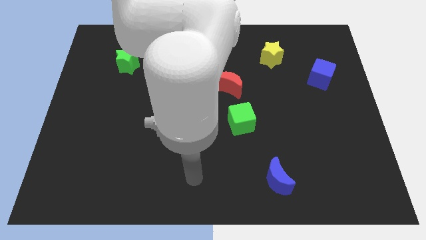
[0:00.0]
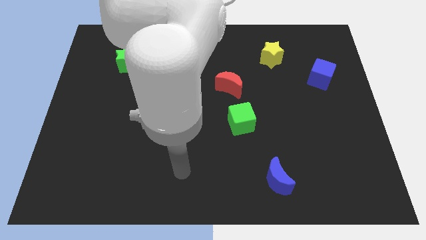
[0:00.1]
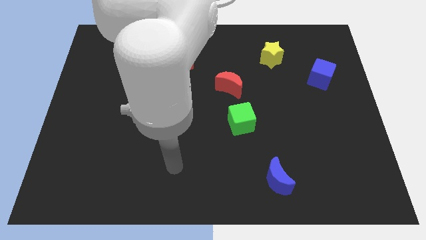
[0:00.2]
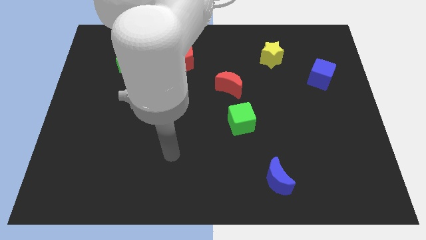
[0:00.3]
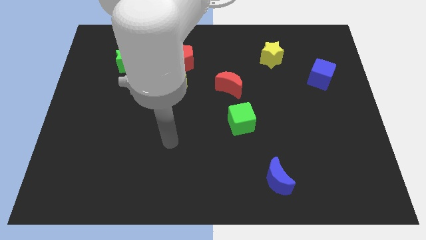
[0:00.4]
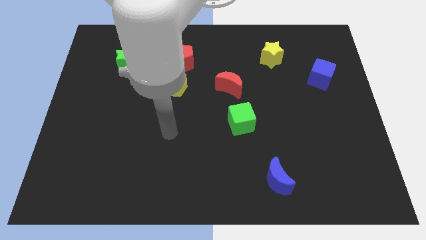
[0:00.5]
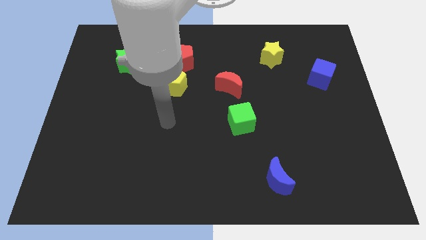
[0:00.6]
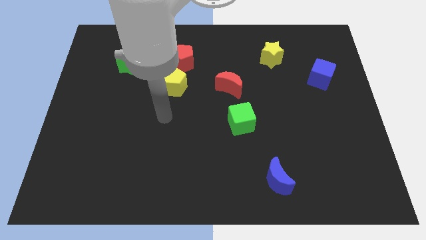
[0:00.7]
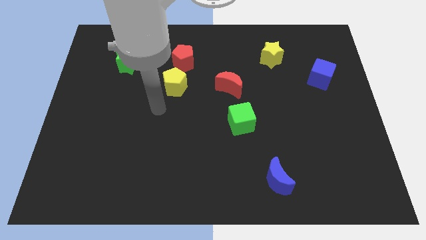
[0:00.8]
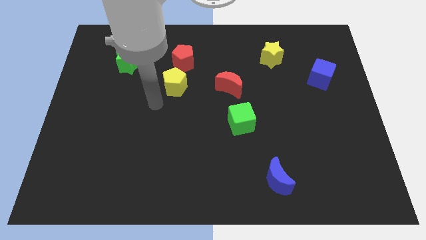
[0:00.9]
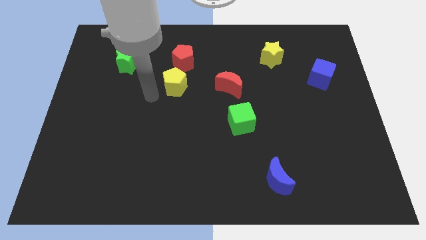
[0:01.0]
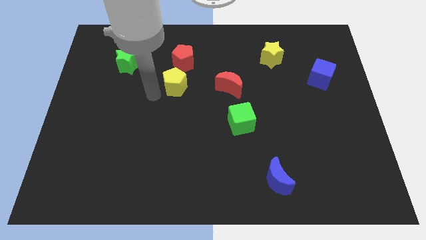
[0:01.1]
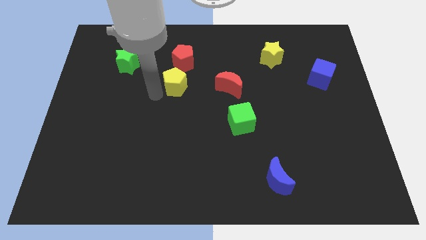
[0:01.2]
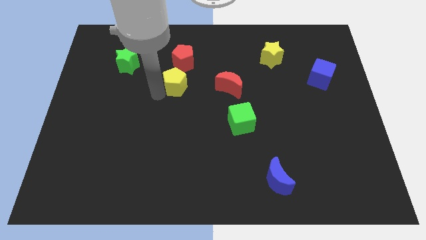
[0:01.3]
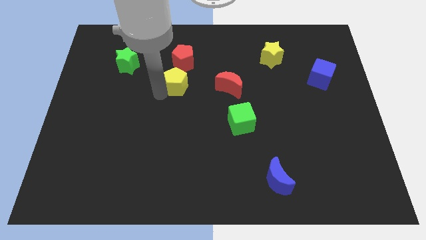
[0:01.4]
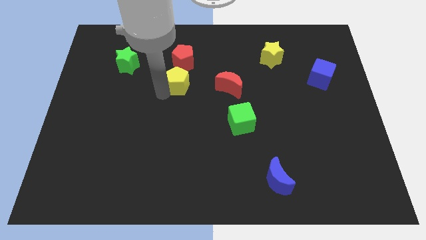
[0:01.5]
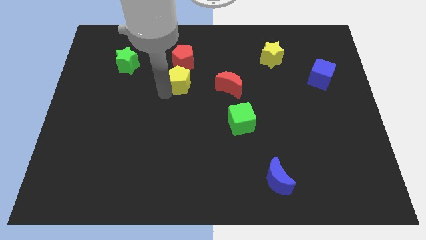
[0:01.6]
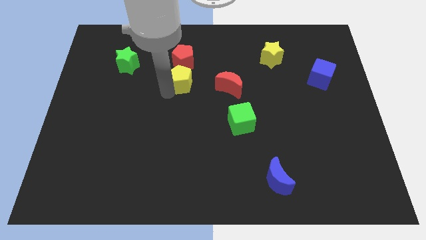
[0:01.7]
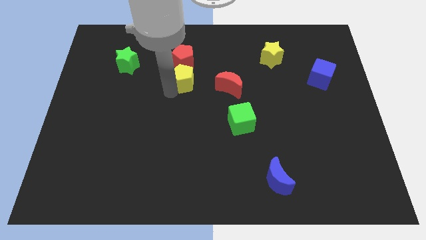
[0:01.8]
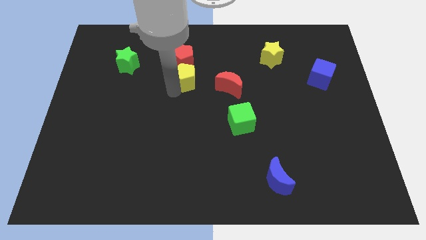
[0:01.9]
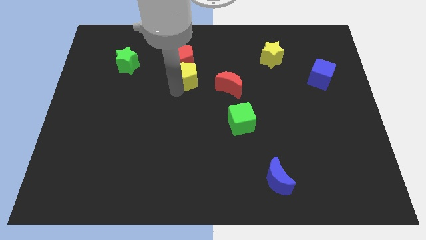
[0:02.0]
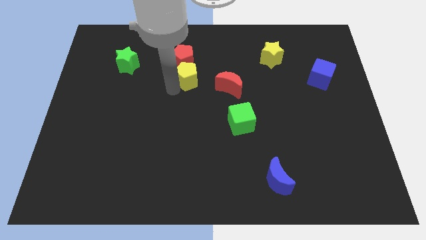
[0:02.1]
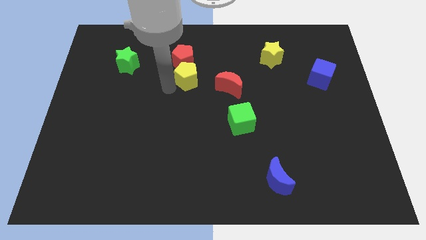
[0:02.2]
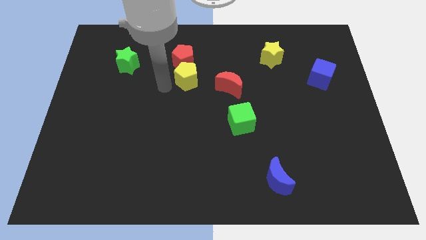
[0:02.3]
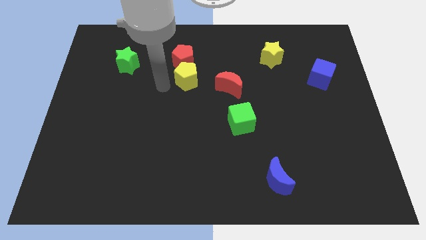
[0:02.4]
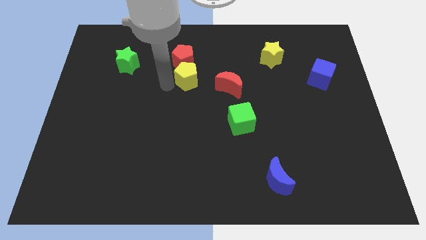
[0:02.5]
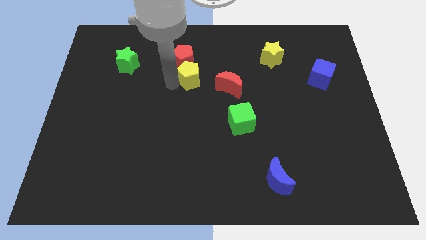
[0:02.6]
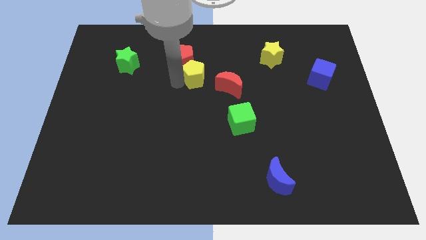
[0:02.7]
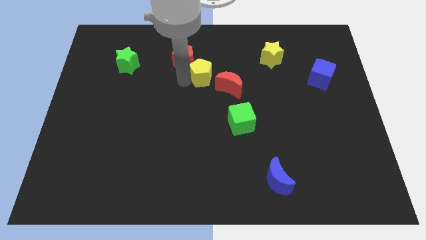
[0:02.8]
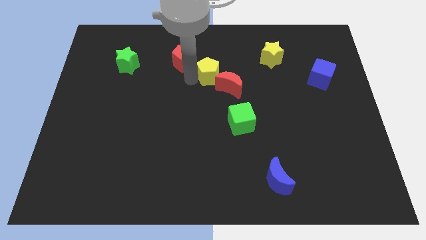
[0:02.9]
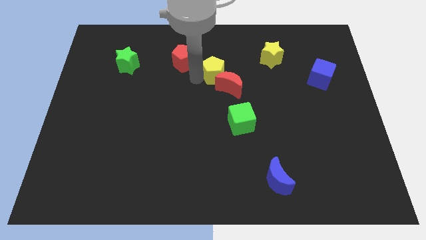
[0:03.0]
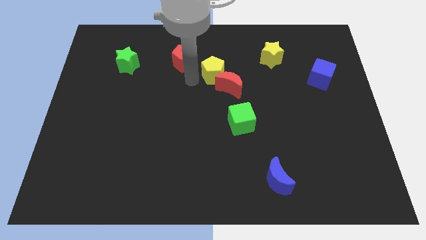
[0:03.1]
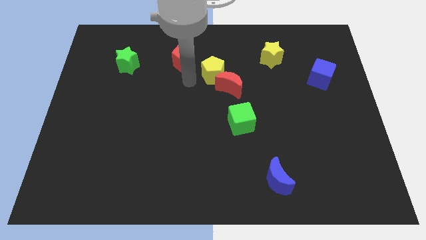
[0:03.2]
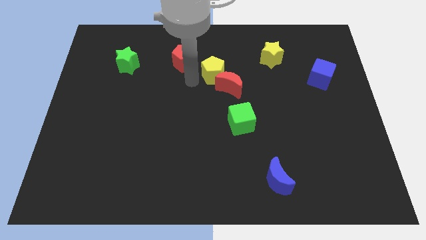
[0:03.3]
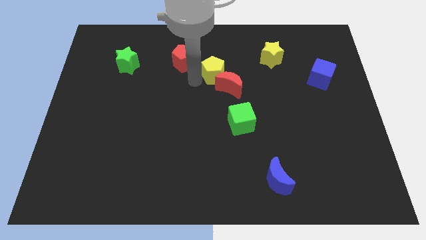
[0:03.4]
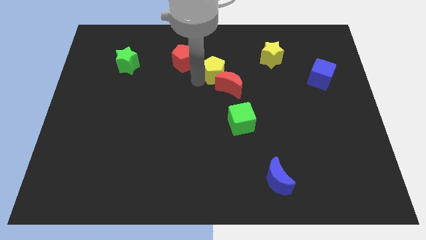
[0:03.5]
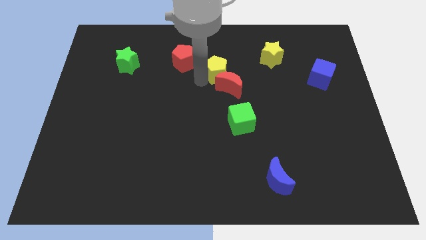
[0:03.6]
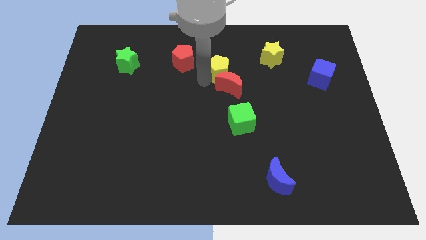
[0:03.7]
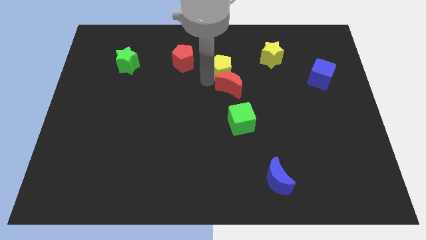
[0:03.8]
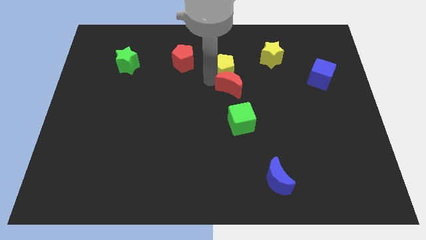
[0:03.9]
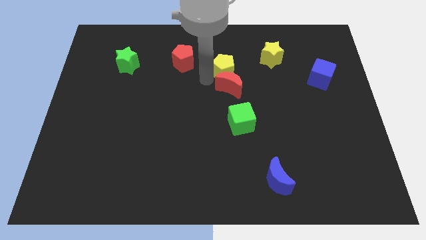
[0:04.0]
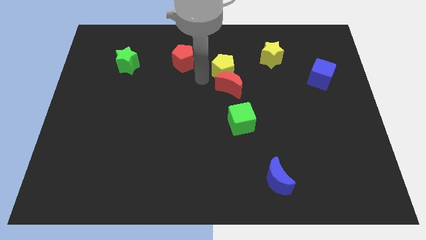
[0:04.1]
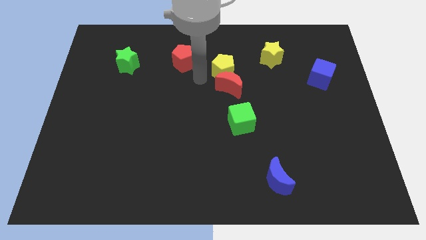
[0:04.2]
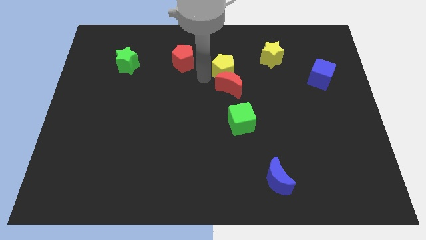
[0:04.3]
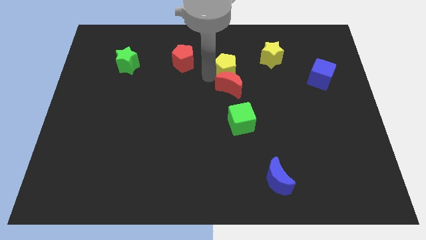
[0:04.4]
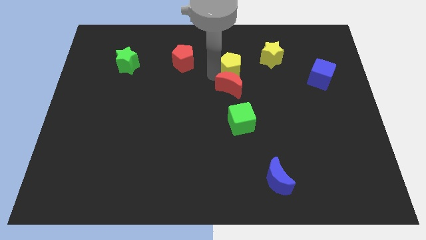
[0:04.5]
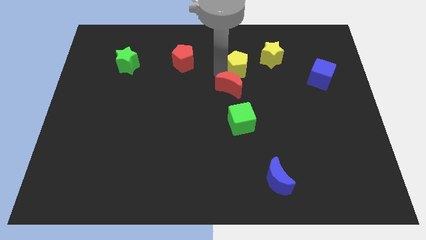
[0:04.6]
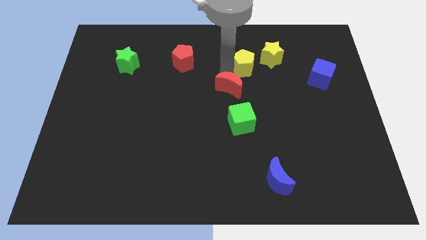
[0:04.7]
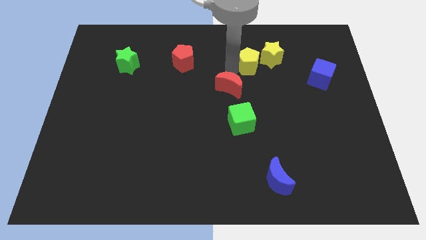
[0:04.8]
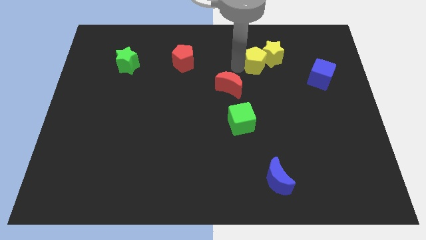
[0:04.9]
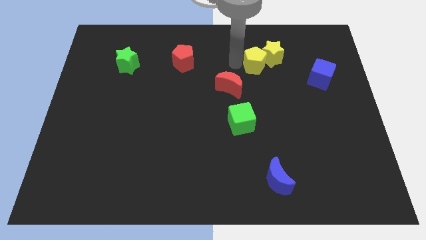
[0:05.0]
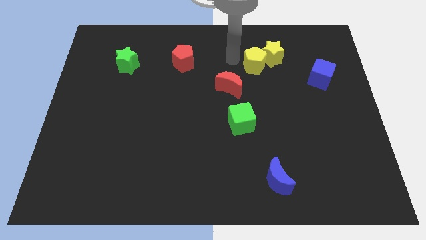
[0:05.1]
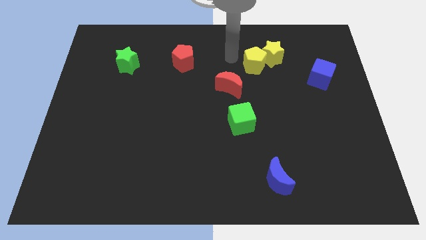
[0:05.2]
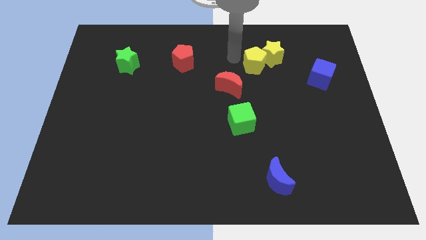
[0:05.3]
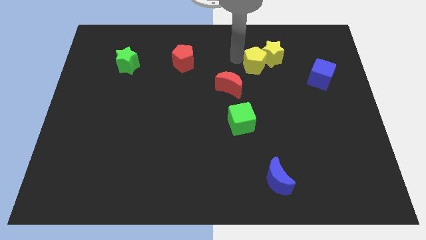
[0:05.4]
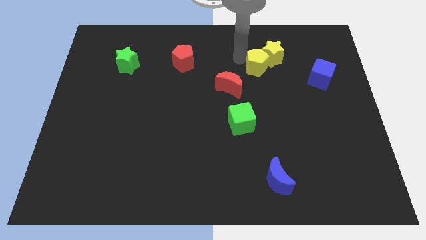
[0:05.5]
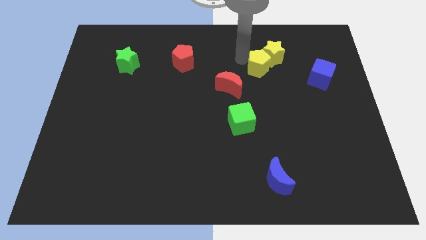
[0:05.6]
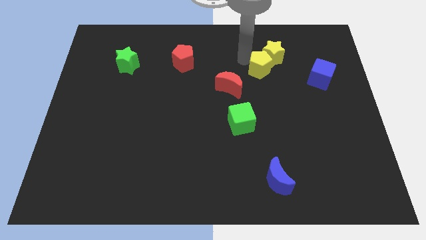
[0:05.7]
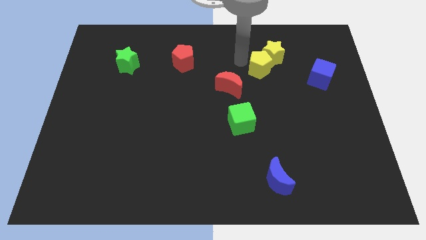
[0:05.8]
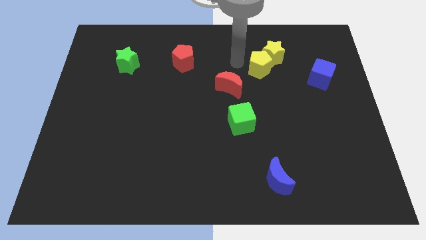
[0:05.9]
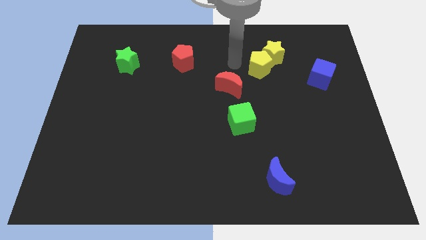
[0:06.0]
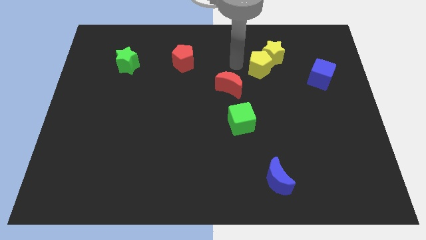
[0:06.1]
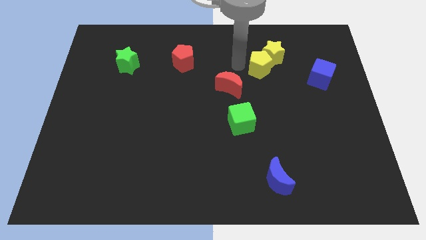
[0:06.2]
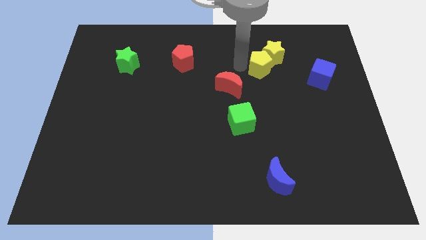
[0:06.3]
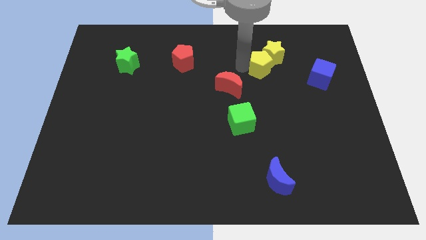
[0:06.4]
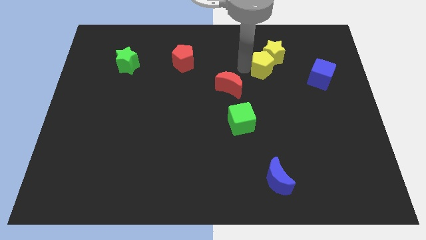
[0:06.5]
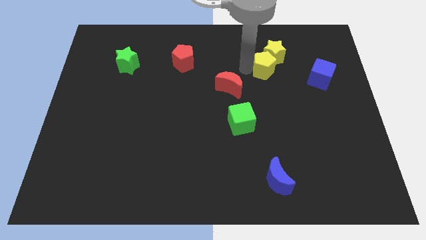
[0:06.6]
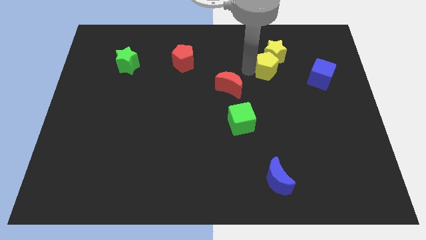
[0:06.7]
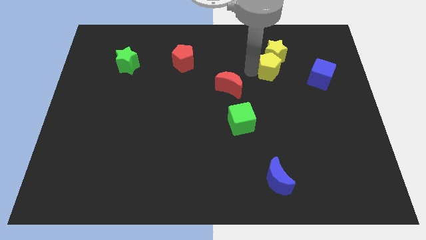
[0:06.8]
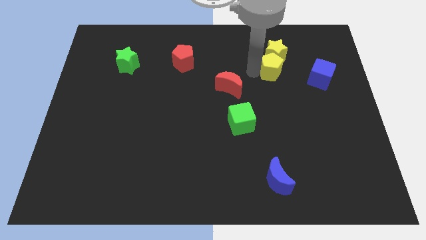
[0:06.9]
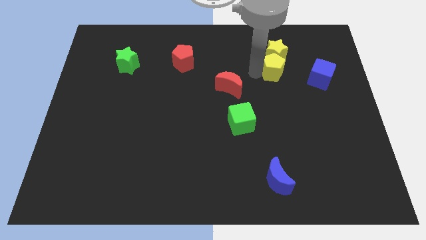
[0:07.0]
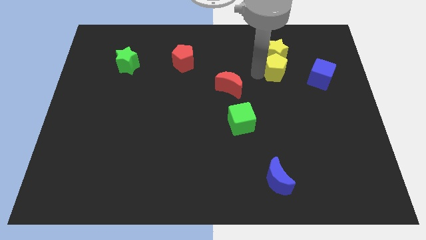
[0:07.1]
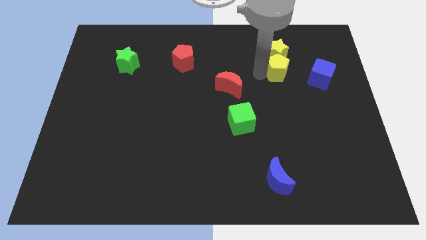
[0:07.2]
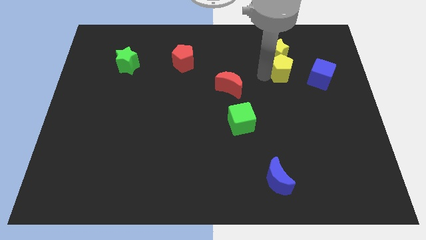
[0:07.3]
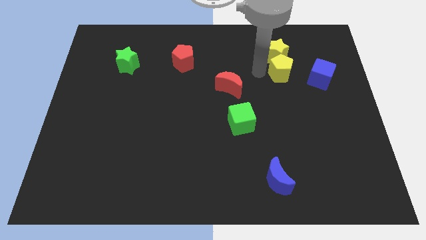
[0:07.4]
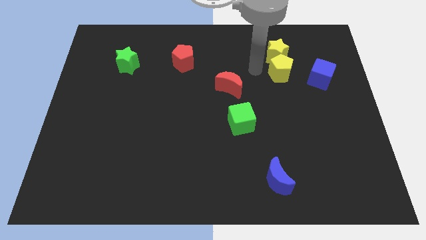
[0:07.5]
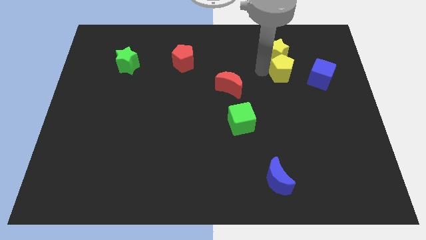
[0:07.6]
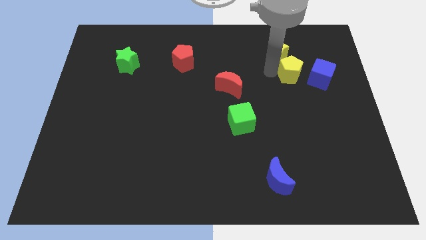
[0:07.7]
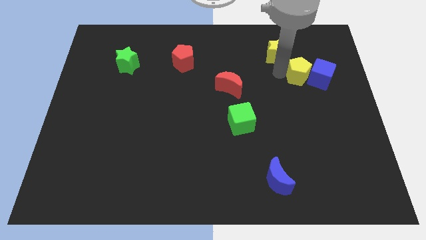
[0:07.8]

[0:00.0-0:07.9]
push the yellow pentagon next to the blue cube

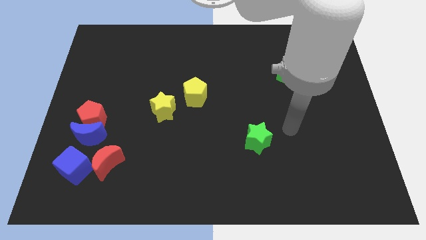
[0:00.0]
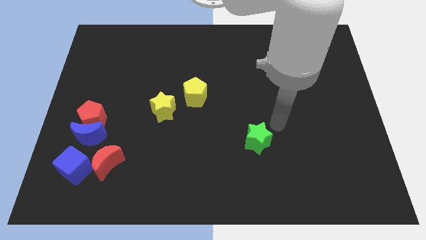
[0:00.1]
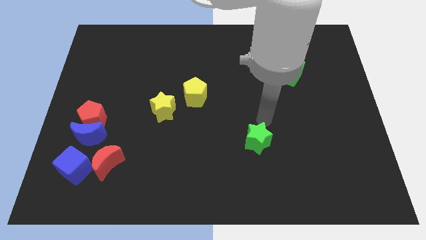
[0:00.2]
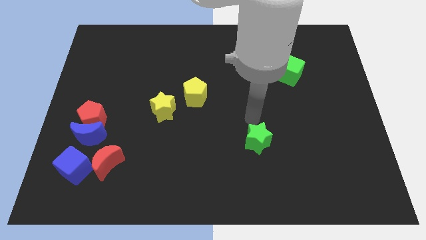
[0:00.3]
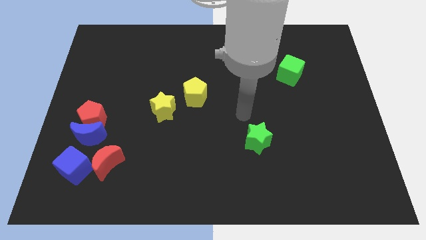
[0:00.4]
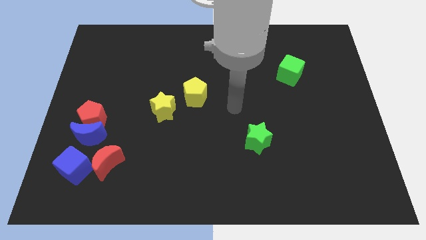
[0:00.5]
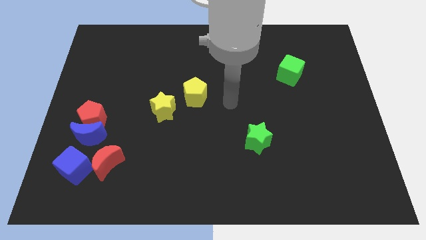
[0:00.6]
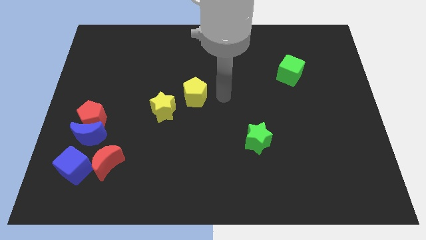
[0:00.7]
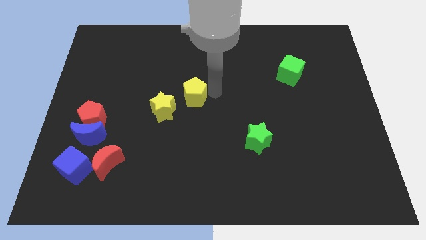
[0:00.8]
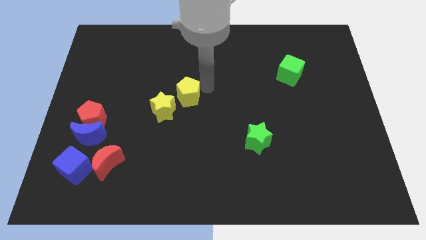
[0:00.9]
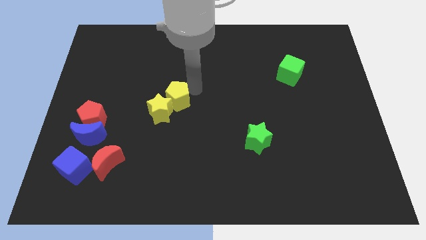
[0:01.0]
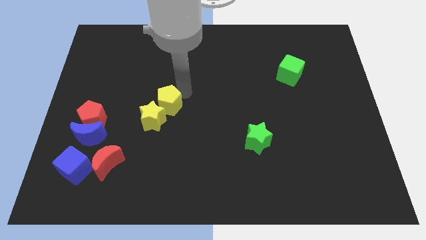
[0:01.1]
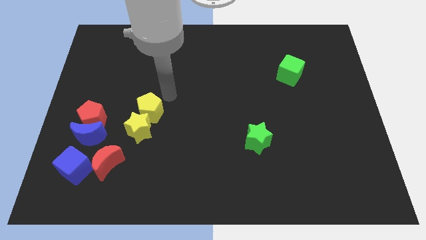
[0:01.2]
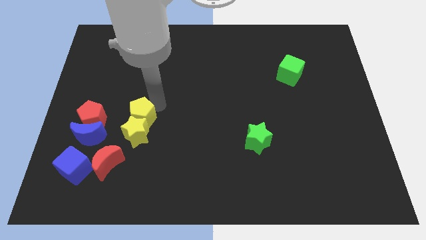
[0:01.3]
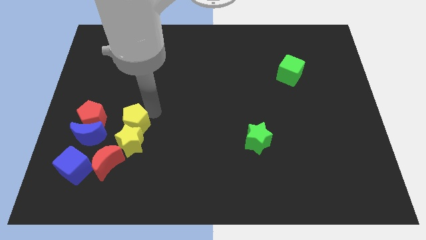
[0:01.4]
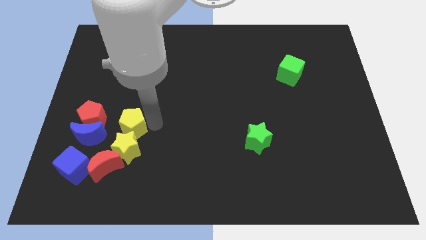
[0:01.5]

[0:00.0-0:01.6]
put the yellow star to the red moon
